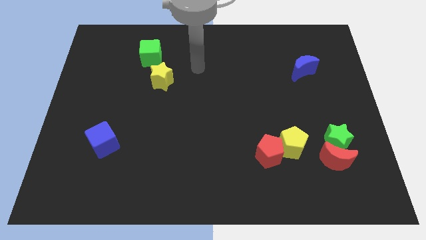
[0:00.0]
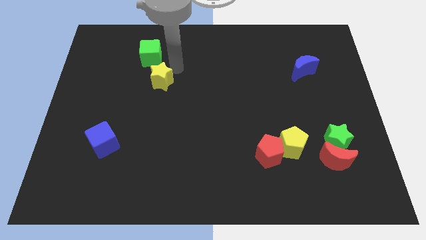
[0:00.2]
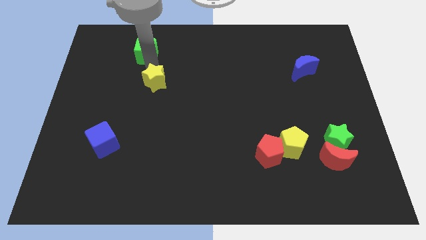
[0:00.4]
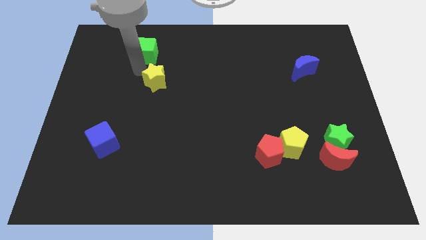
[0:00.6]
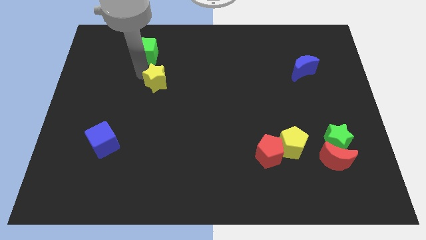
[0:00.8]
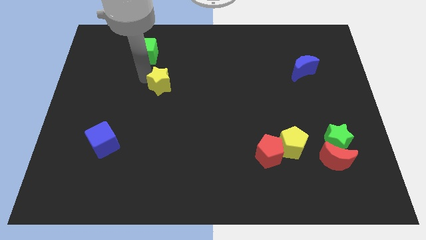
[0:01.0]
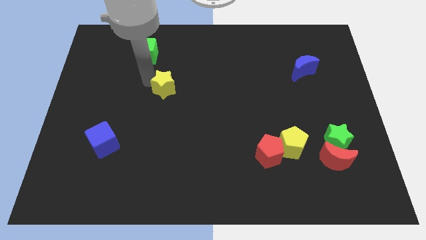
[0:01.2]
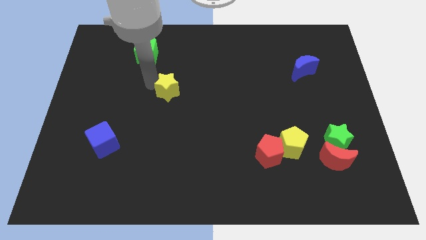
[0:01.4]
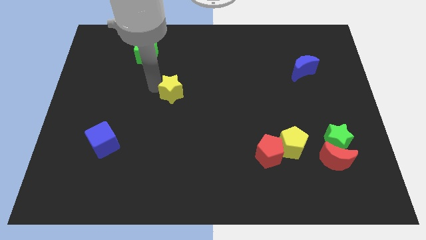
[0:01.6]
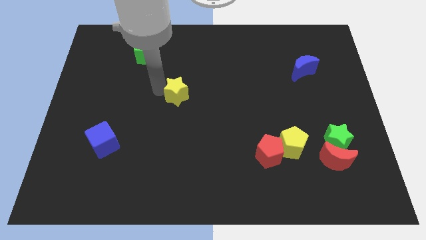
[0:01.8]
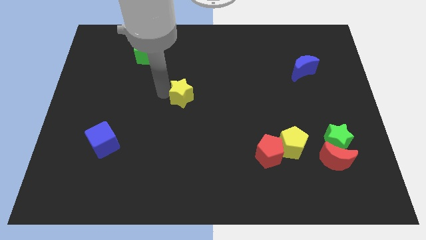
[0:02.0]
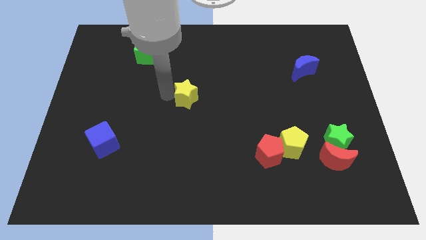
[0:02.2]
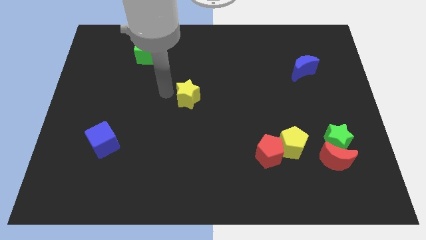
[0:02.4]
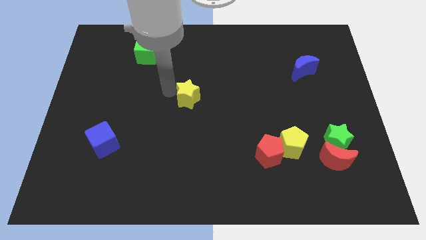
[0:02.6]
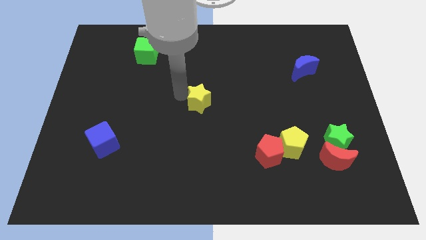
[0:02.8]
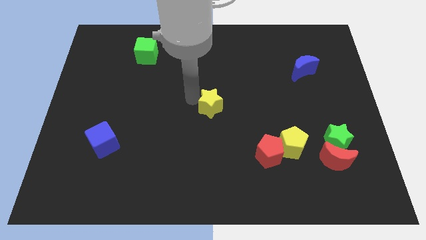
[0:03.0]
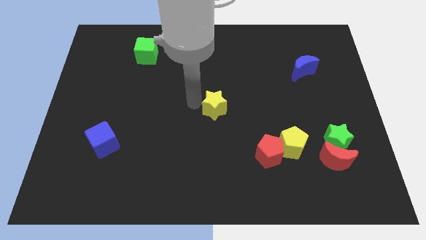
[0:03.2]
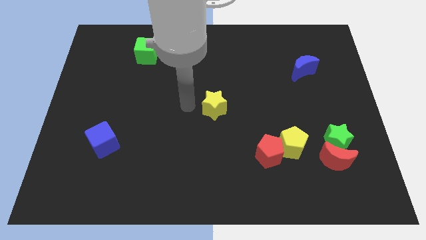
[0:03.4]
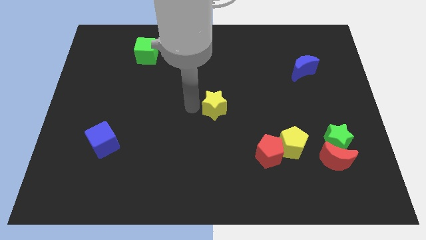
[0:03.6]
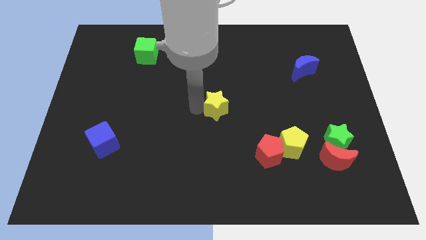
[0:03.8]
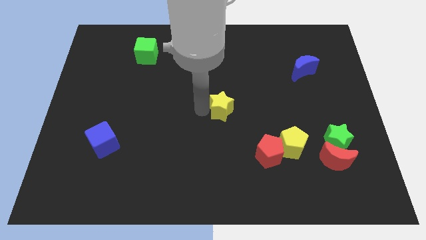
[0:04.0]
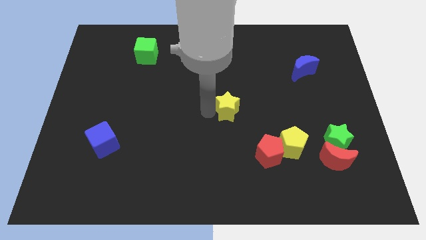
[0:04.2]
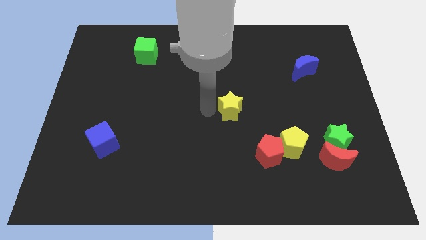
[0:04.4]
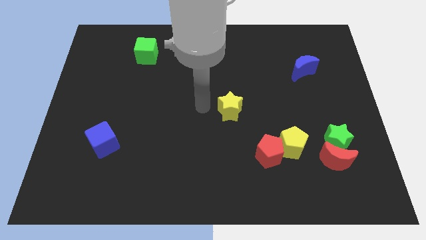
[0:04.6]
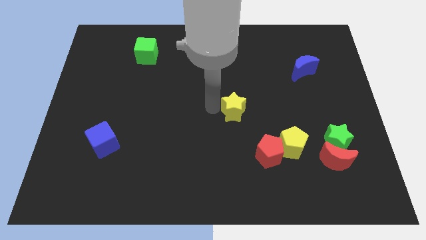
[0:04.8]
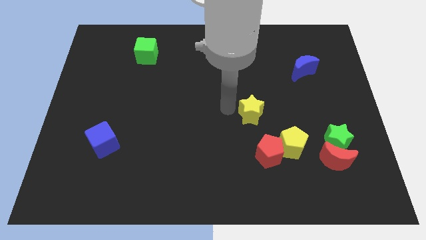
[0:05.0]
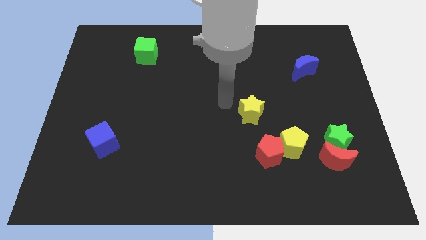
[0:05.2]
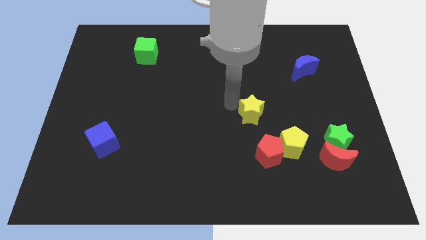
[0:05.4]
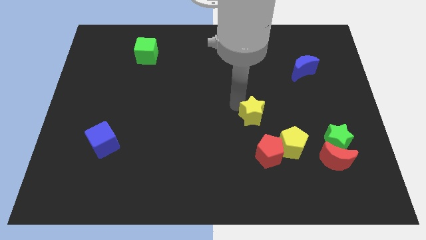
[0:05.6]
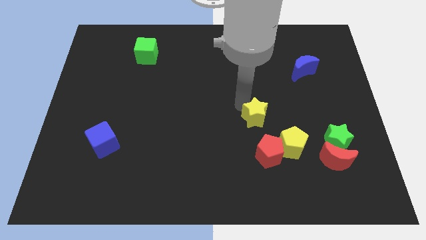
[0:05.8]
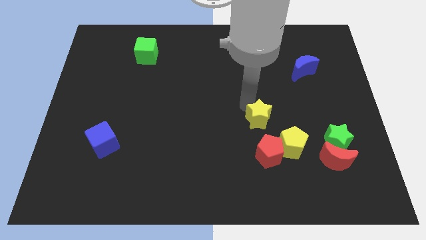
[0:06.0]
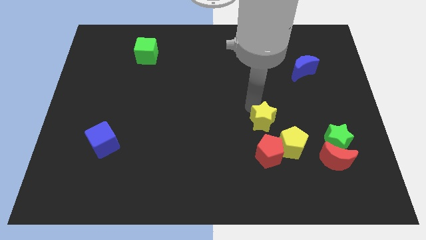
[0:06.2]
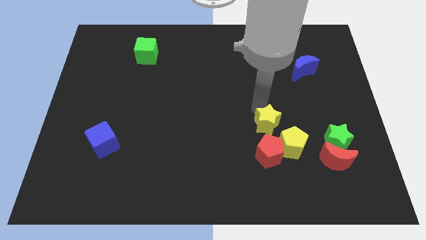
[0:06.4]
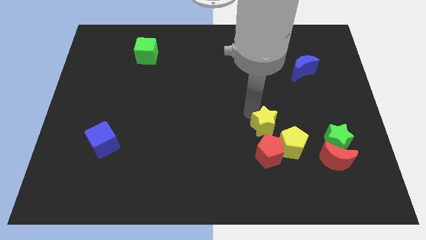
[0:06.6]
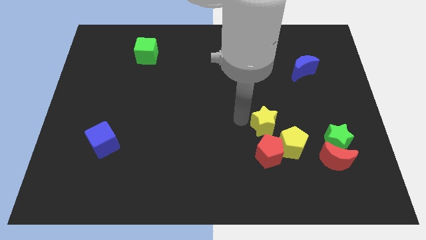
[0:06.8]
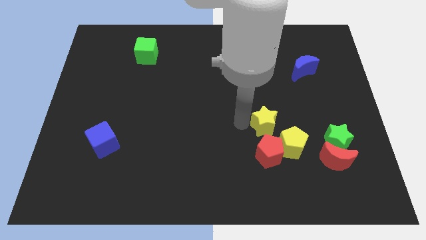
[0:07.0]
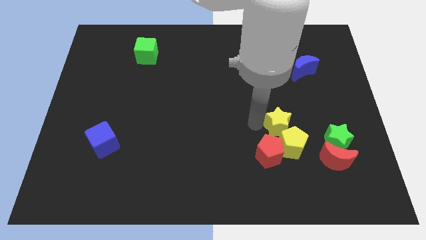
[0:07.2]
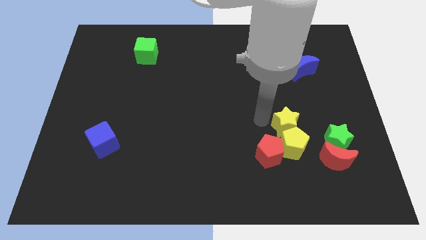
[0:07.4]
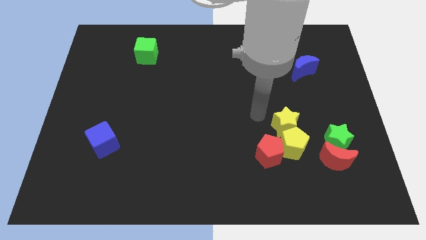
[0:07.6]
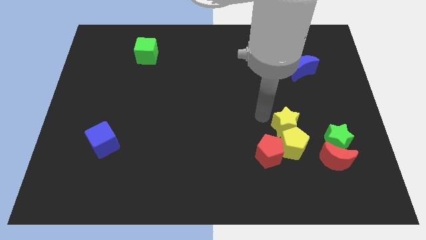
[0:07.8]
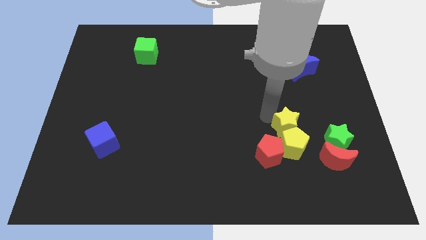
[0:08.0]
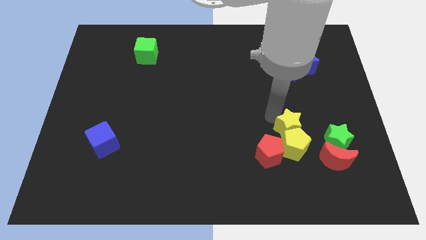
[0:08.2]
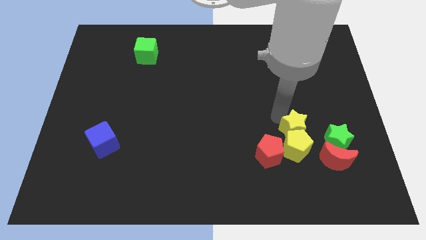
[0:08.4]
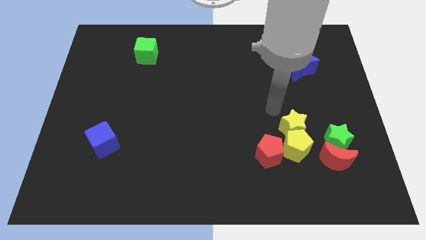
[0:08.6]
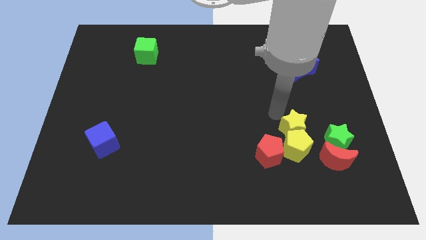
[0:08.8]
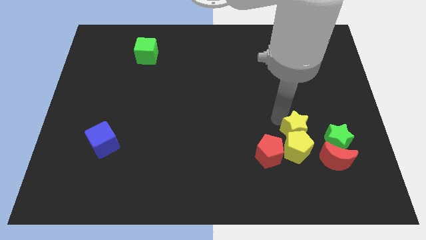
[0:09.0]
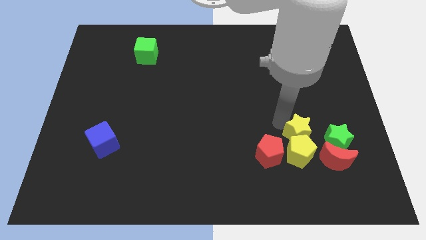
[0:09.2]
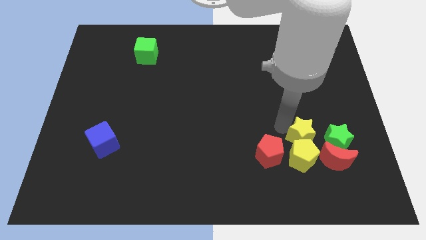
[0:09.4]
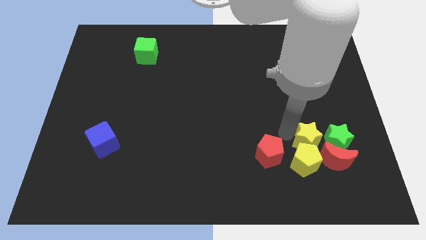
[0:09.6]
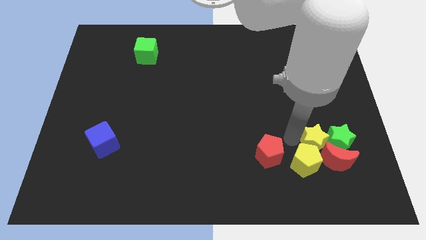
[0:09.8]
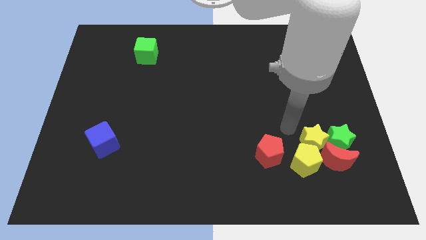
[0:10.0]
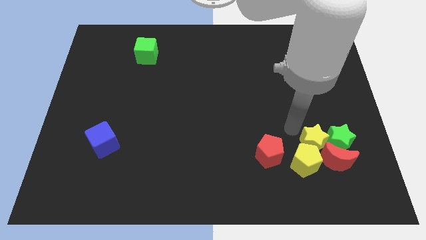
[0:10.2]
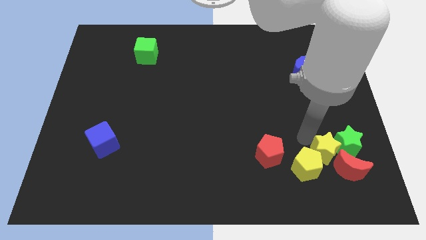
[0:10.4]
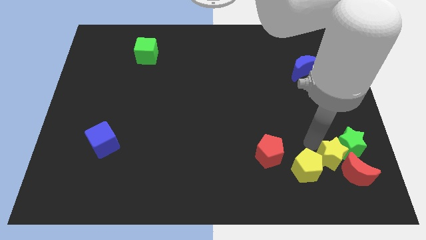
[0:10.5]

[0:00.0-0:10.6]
move the yellow star to the red moon

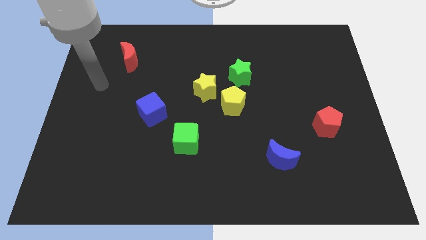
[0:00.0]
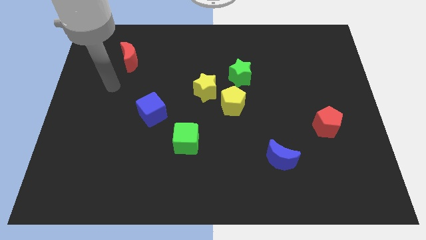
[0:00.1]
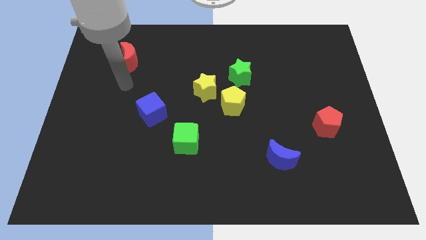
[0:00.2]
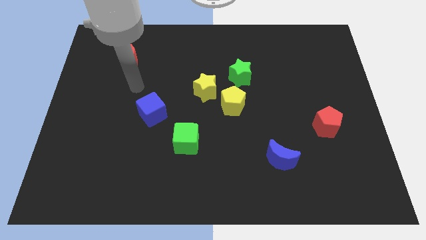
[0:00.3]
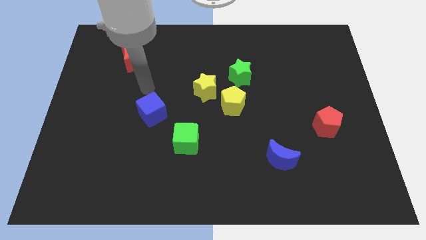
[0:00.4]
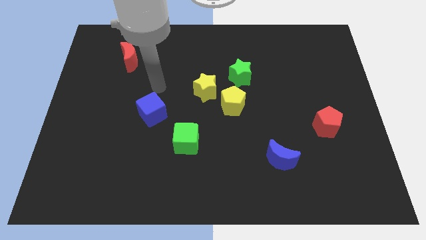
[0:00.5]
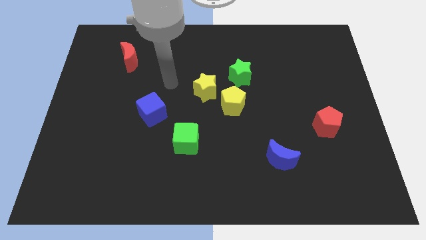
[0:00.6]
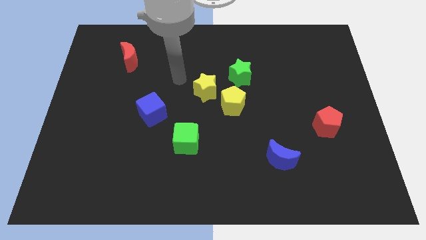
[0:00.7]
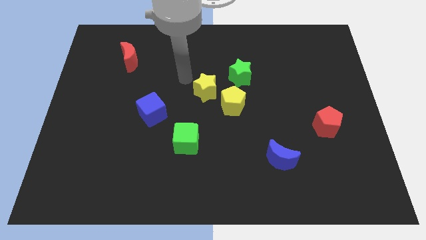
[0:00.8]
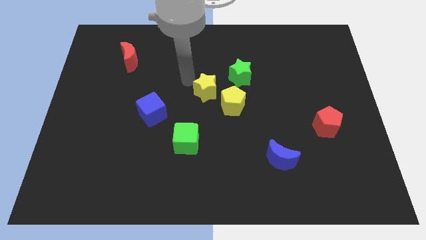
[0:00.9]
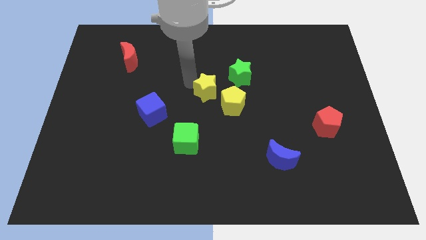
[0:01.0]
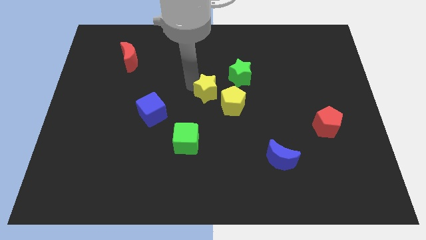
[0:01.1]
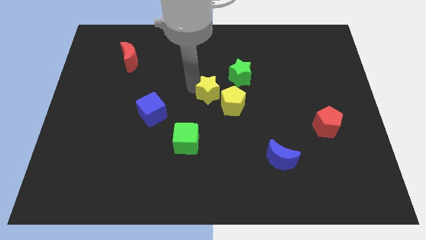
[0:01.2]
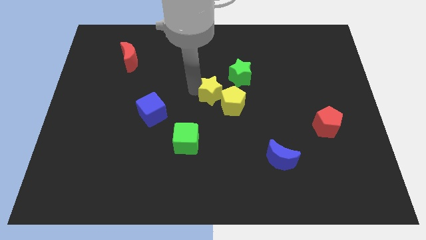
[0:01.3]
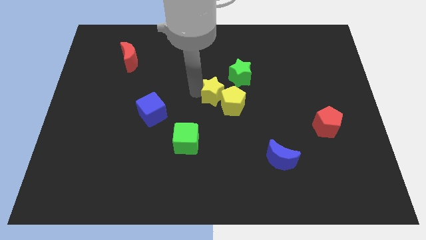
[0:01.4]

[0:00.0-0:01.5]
slide the yellow star to the yellow pentagon

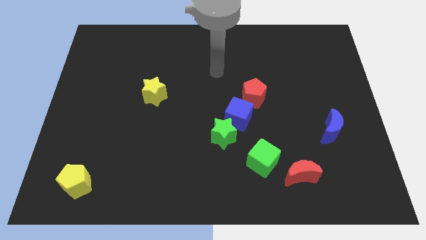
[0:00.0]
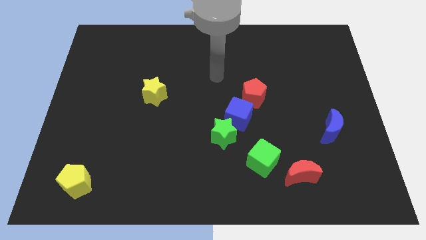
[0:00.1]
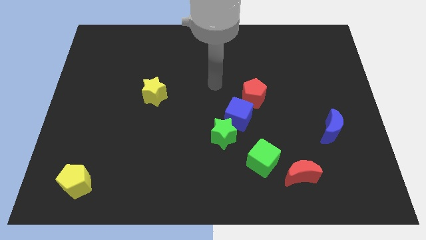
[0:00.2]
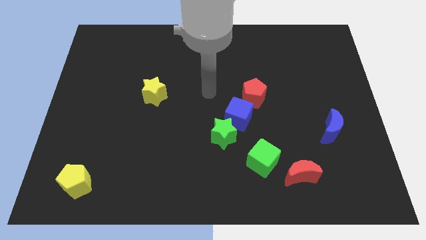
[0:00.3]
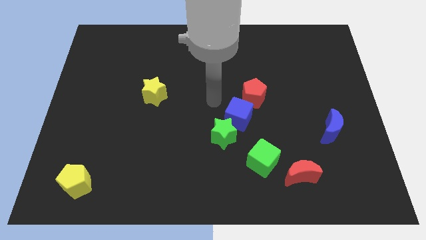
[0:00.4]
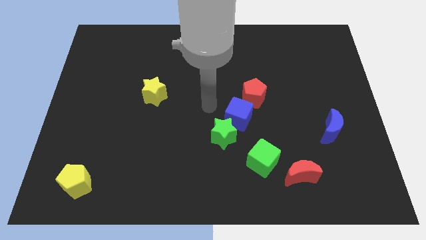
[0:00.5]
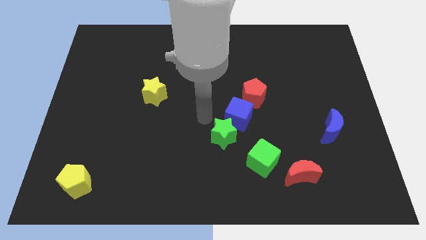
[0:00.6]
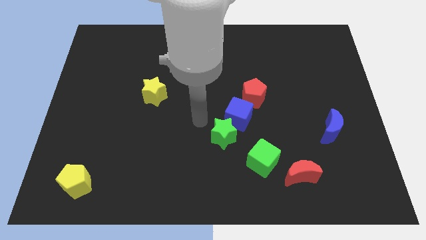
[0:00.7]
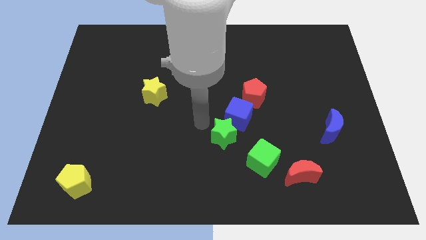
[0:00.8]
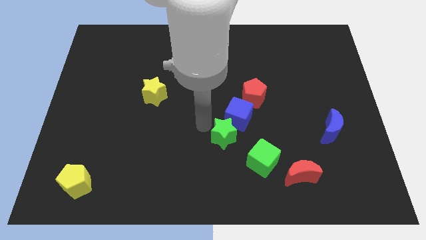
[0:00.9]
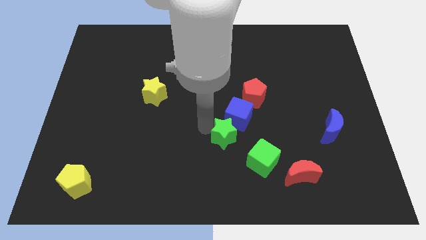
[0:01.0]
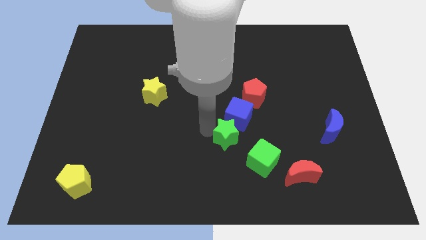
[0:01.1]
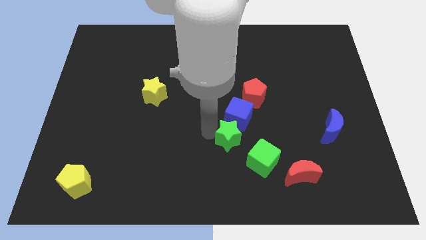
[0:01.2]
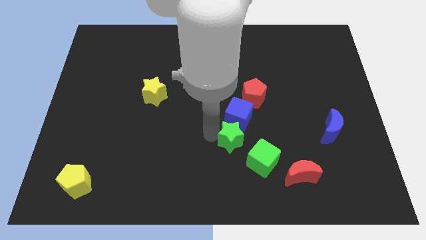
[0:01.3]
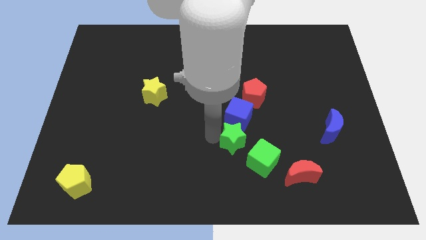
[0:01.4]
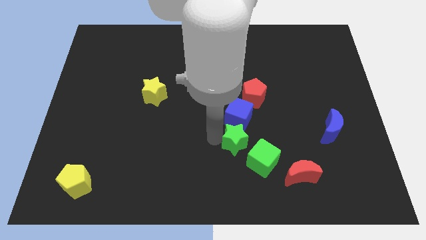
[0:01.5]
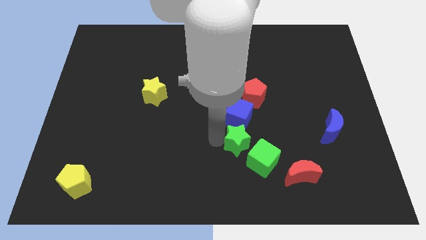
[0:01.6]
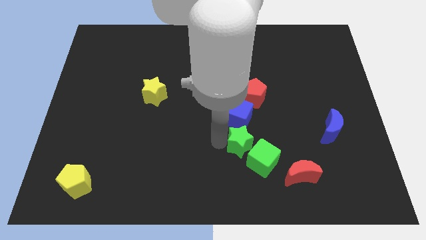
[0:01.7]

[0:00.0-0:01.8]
slide the green star close to the green cube
